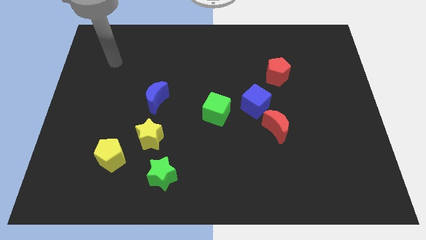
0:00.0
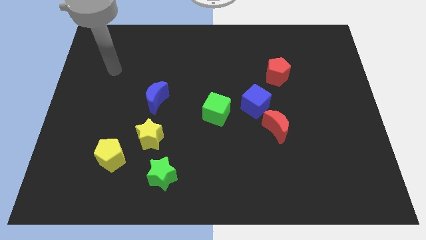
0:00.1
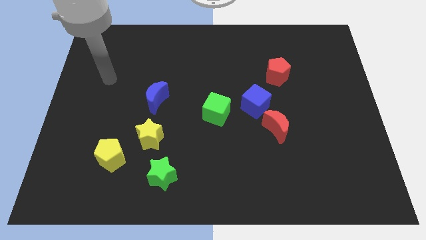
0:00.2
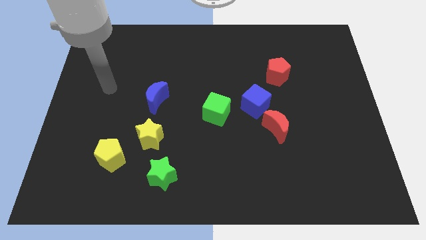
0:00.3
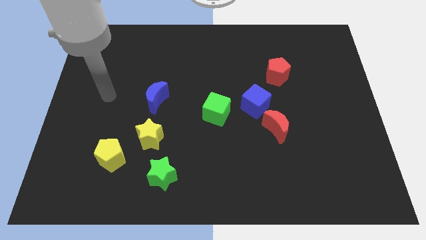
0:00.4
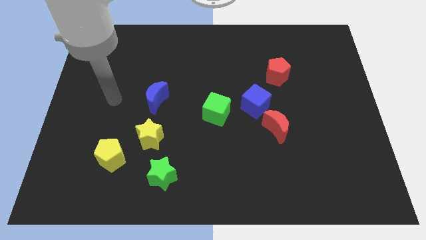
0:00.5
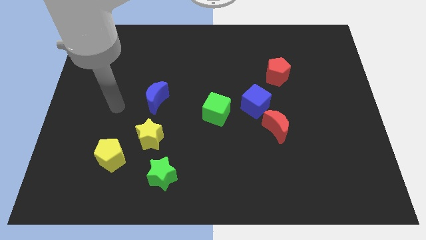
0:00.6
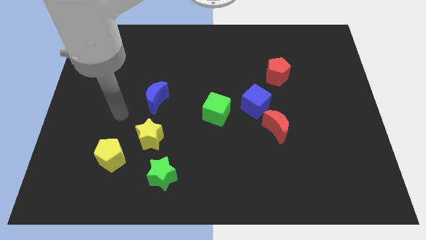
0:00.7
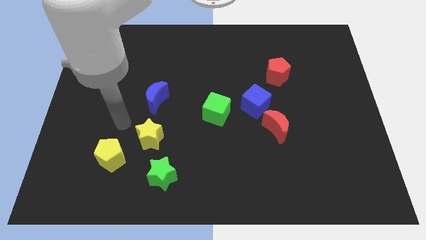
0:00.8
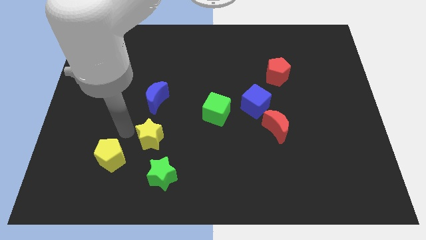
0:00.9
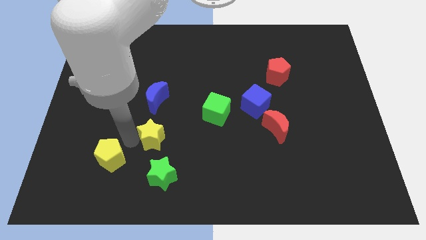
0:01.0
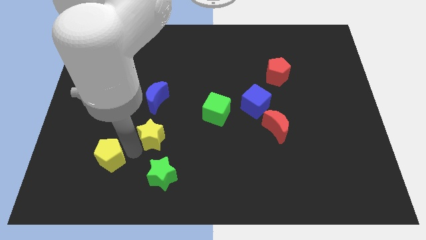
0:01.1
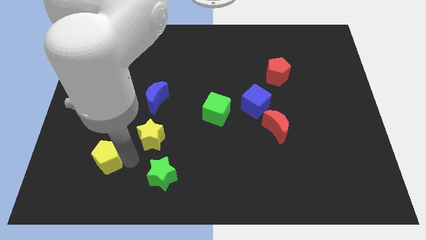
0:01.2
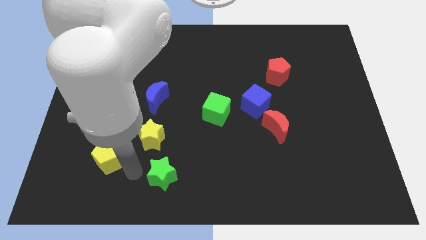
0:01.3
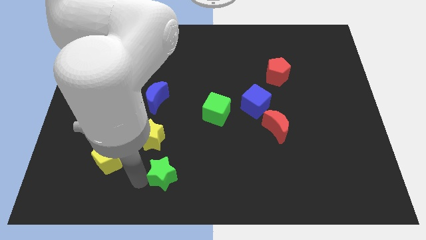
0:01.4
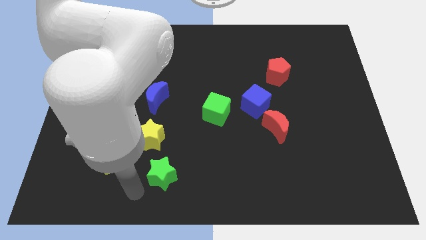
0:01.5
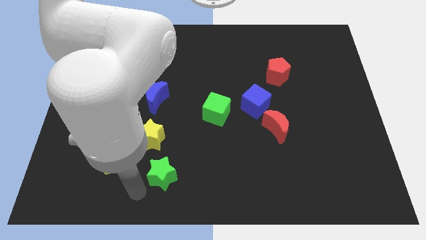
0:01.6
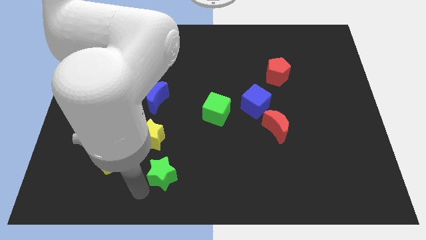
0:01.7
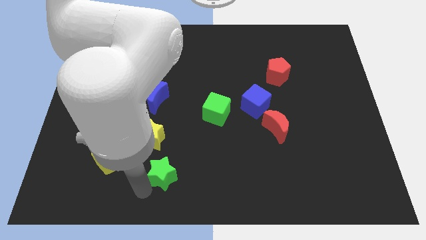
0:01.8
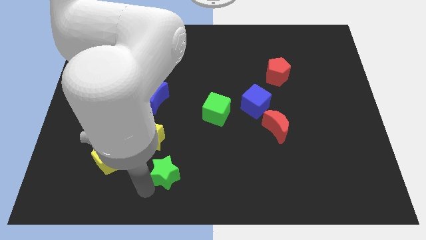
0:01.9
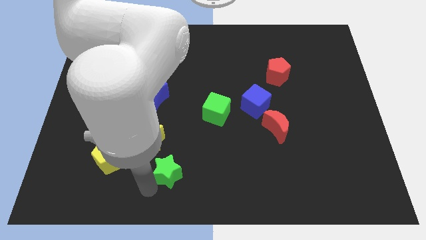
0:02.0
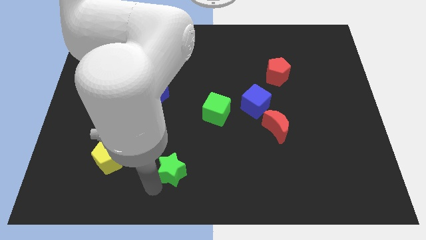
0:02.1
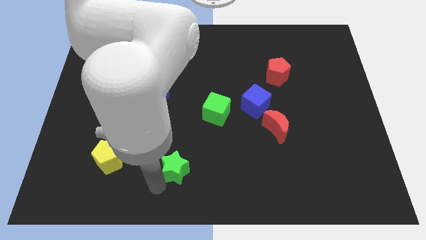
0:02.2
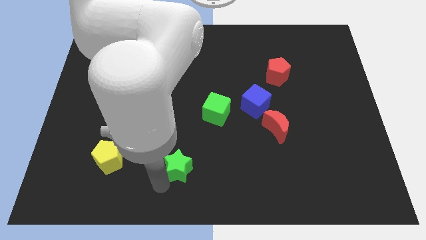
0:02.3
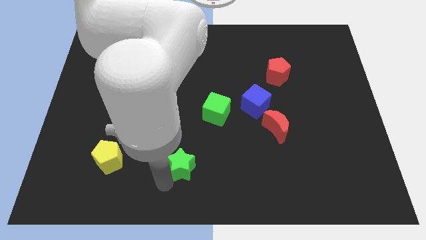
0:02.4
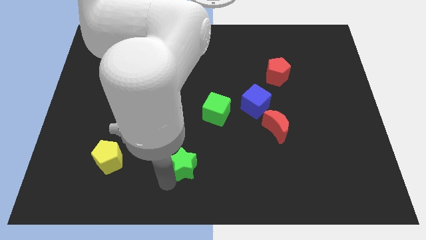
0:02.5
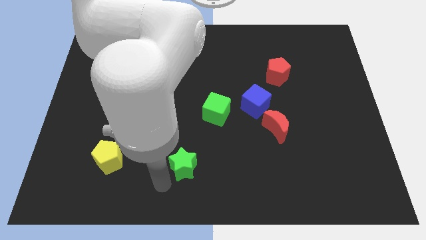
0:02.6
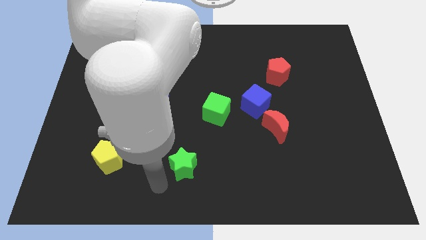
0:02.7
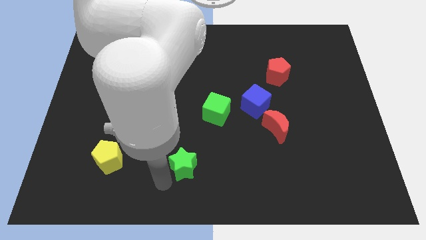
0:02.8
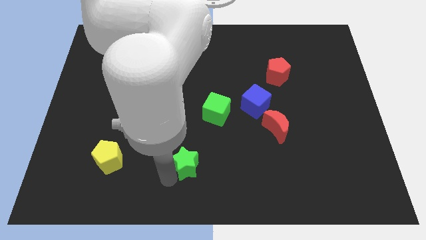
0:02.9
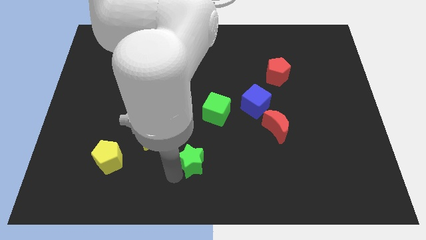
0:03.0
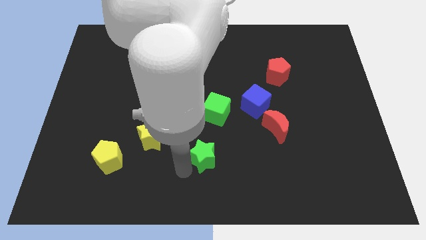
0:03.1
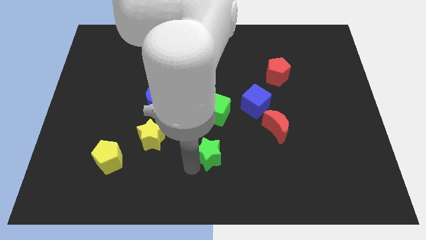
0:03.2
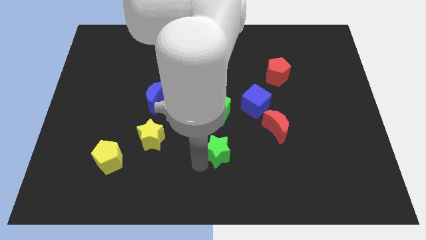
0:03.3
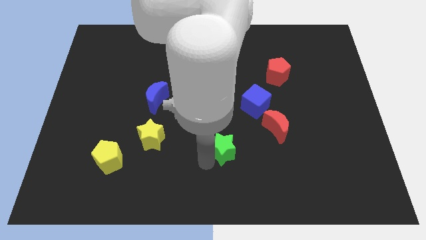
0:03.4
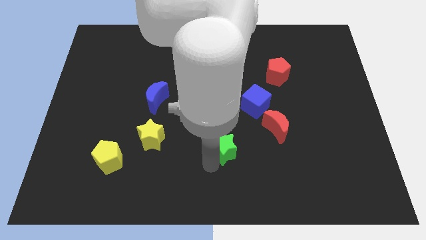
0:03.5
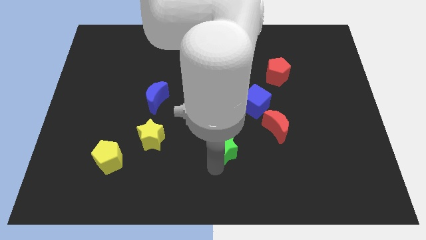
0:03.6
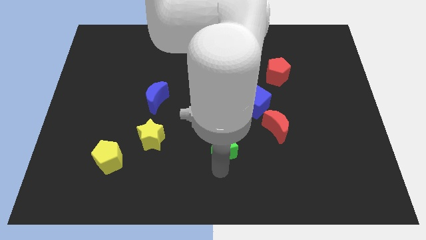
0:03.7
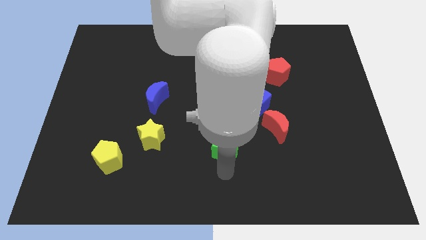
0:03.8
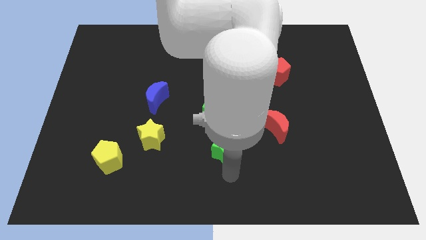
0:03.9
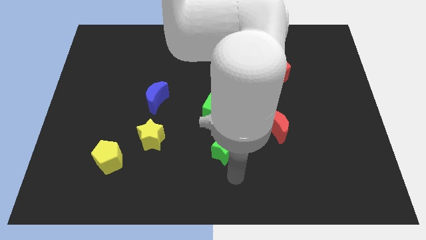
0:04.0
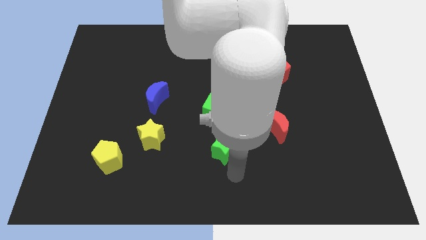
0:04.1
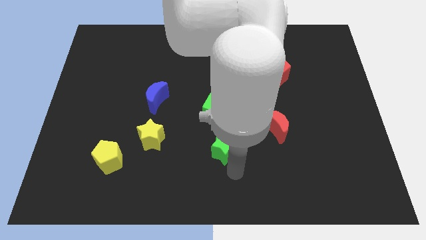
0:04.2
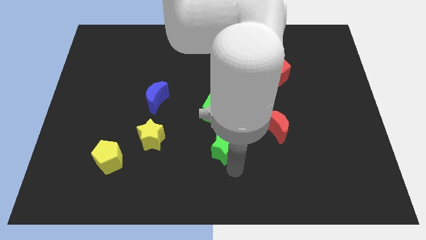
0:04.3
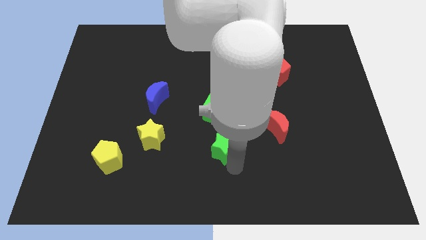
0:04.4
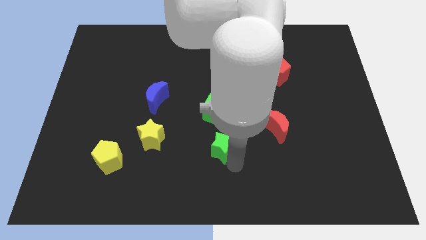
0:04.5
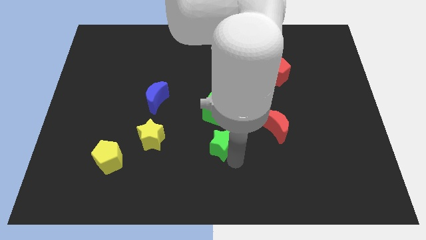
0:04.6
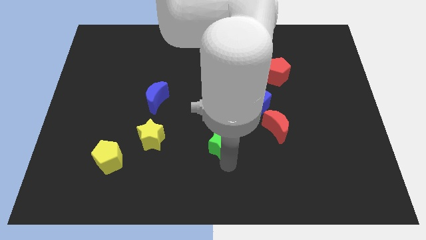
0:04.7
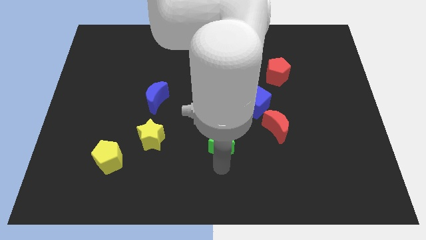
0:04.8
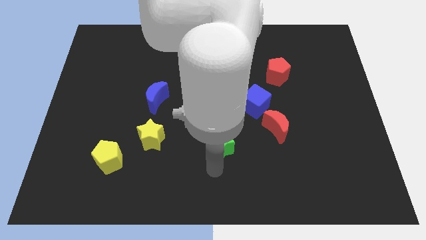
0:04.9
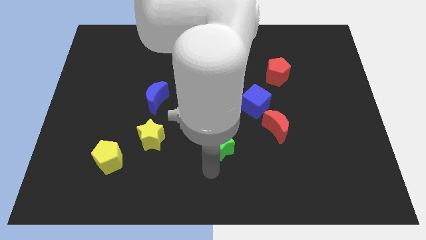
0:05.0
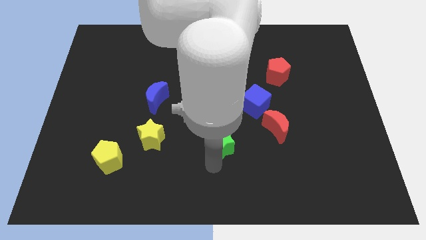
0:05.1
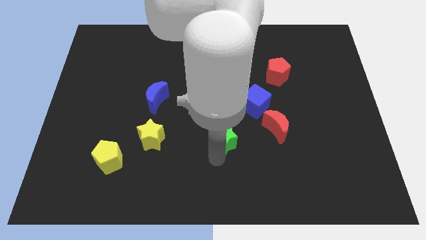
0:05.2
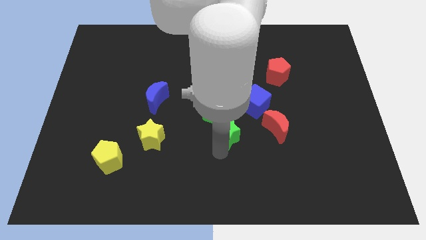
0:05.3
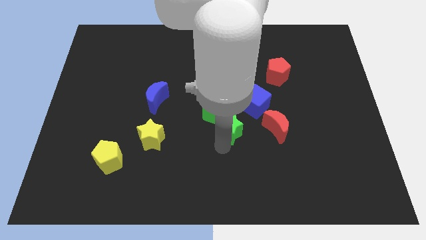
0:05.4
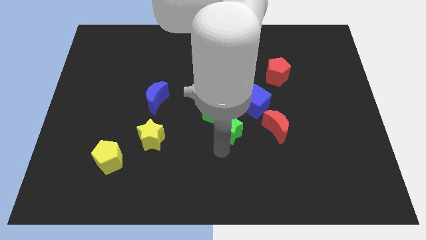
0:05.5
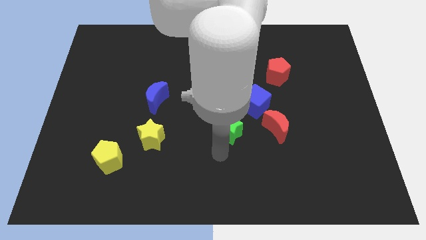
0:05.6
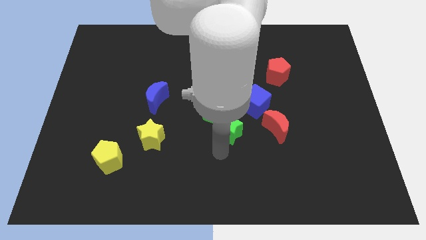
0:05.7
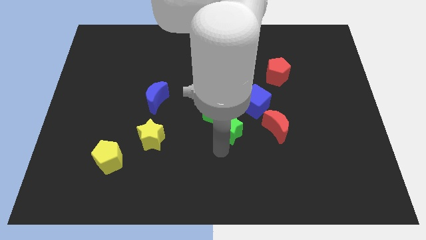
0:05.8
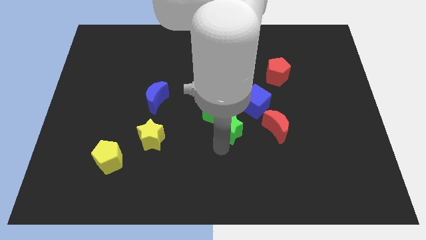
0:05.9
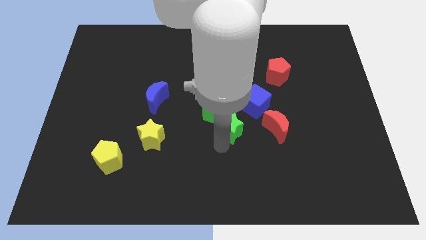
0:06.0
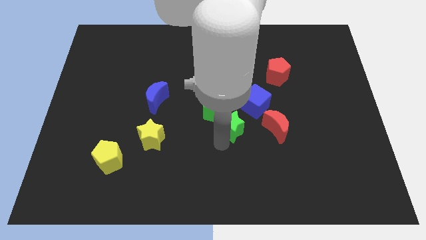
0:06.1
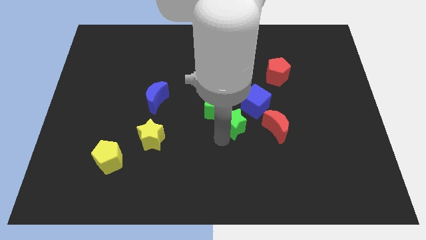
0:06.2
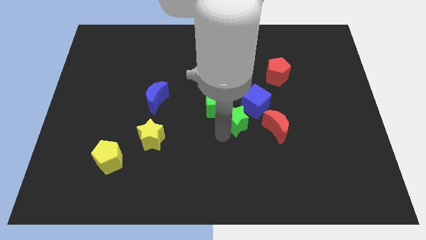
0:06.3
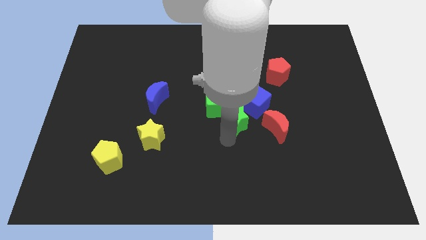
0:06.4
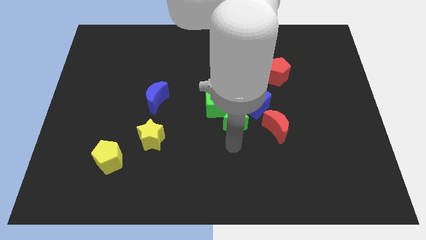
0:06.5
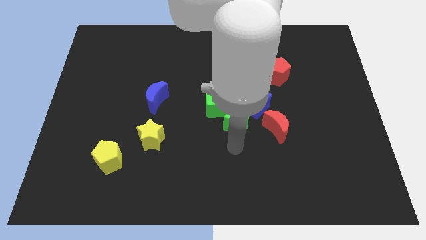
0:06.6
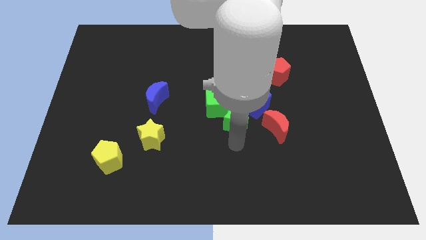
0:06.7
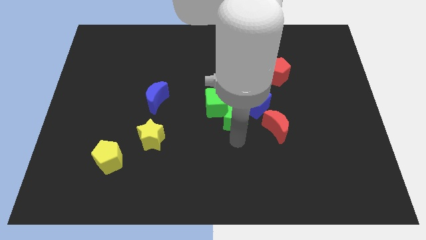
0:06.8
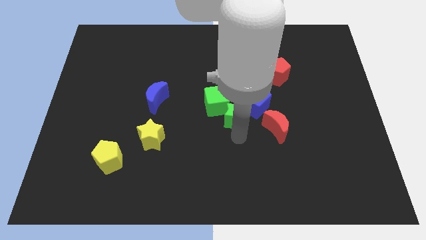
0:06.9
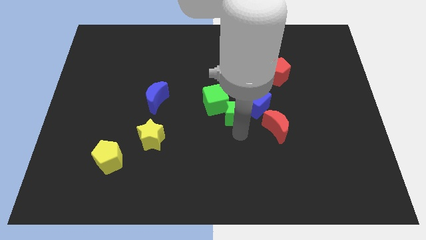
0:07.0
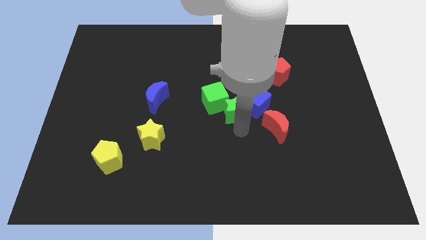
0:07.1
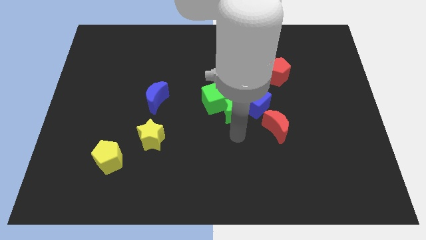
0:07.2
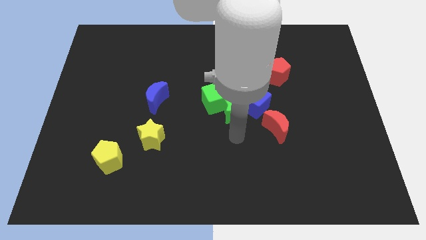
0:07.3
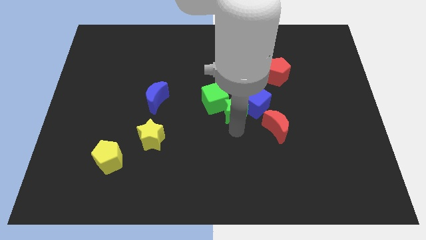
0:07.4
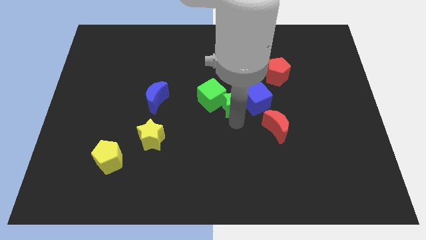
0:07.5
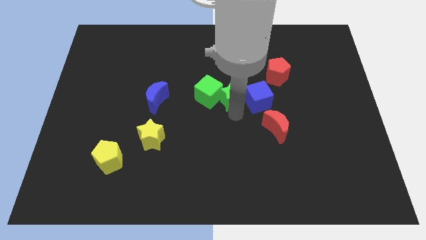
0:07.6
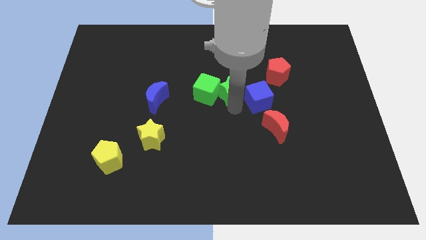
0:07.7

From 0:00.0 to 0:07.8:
move the green star to the top right of the green cube
